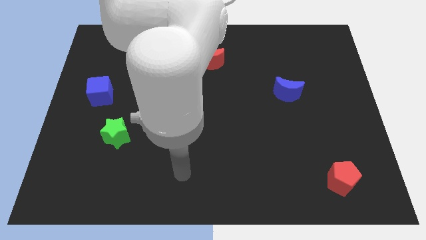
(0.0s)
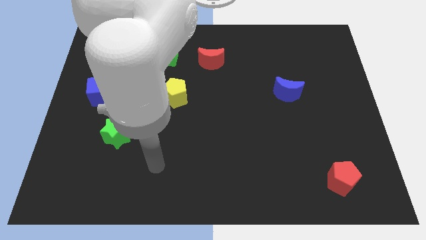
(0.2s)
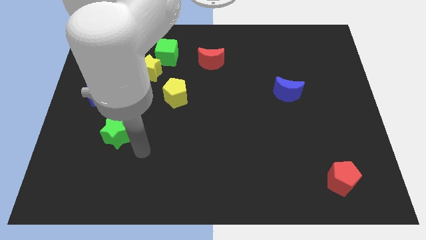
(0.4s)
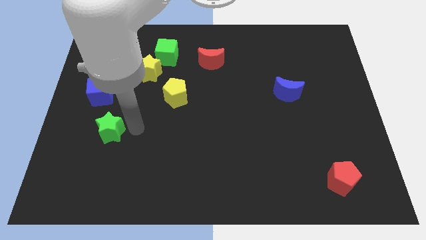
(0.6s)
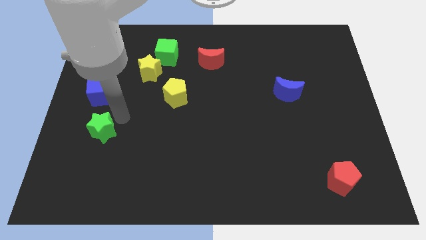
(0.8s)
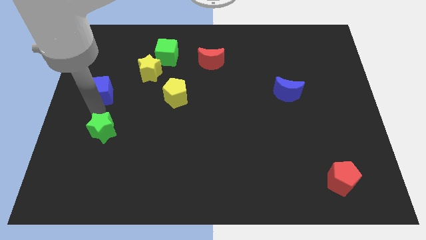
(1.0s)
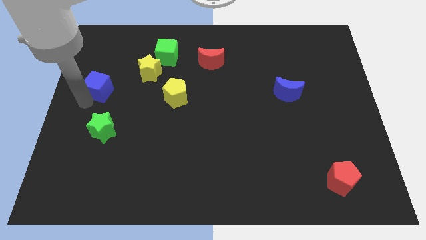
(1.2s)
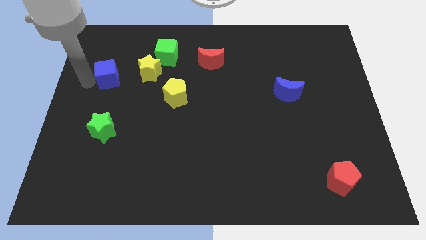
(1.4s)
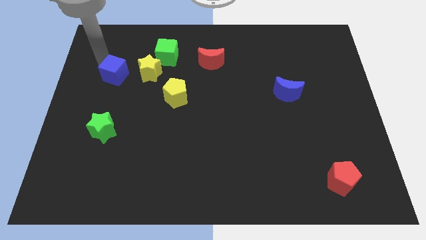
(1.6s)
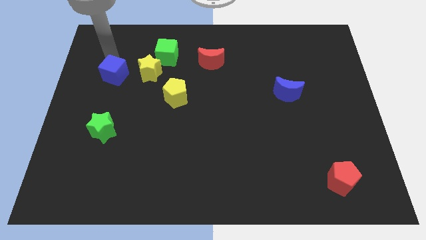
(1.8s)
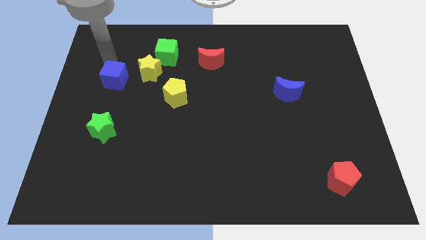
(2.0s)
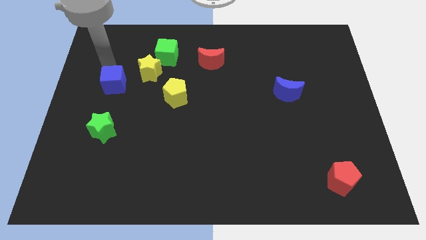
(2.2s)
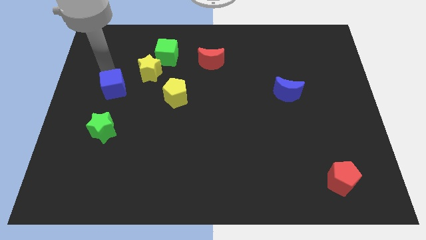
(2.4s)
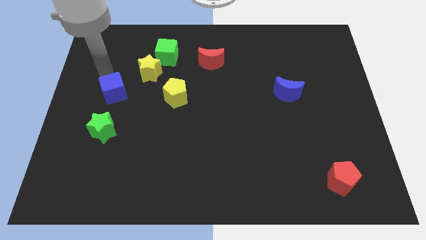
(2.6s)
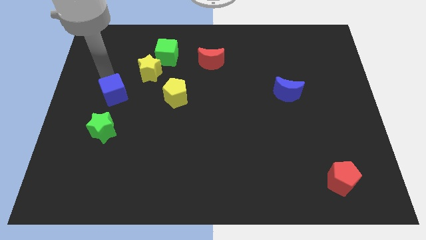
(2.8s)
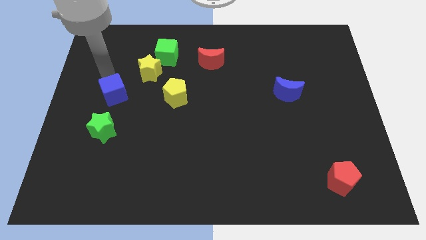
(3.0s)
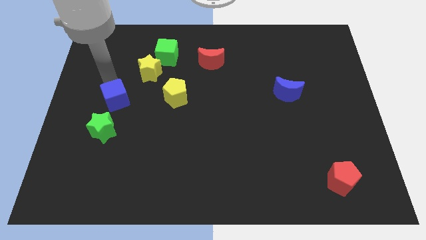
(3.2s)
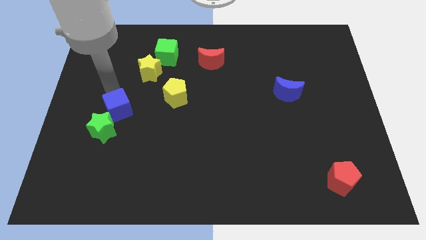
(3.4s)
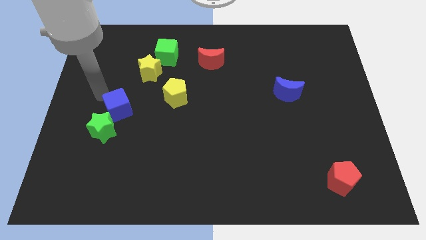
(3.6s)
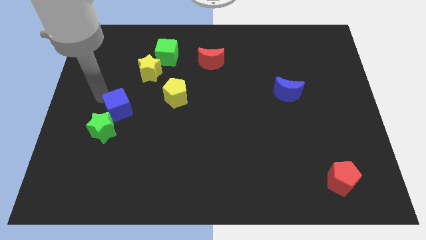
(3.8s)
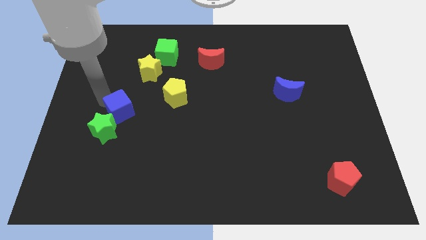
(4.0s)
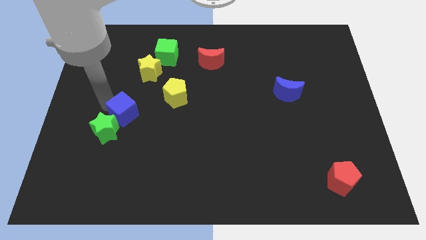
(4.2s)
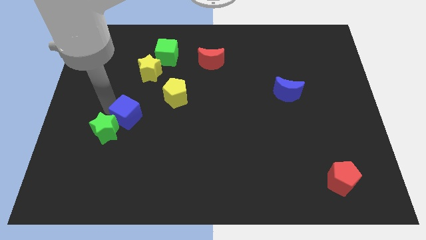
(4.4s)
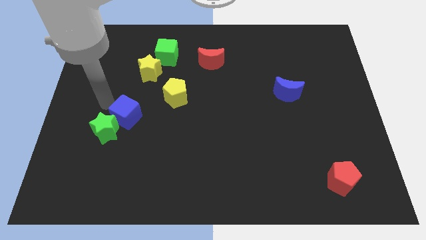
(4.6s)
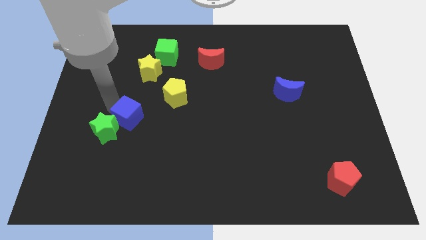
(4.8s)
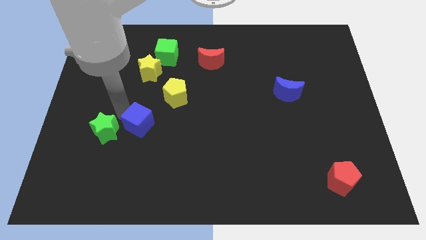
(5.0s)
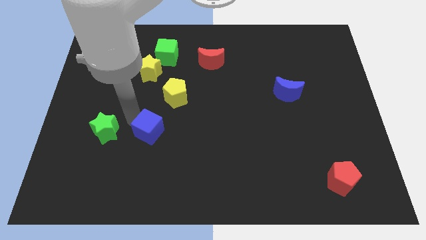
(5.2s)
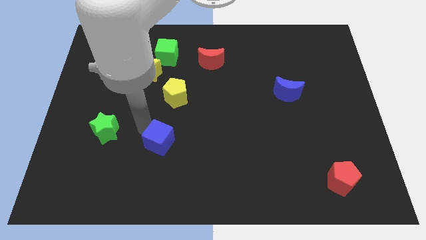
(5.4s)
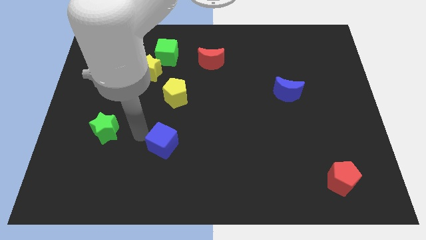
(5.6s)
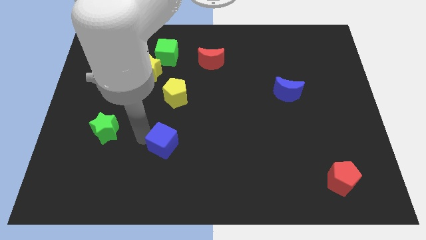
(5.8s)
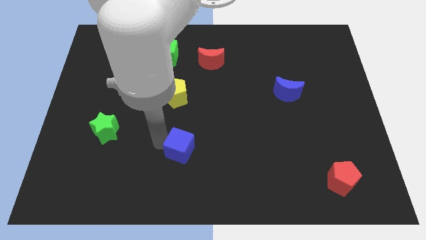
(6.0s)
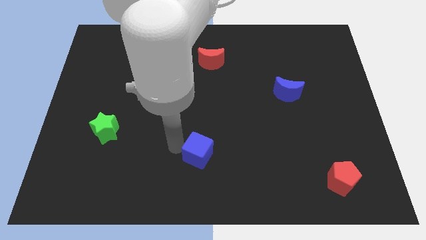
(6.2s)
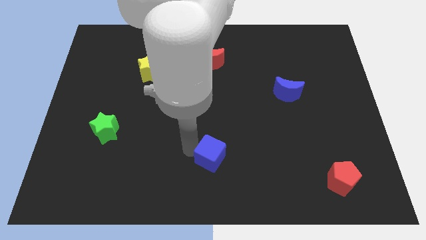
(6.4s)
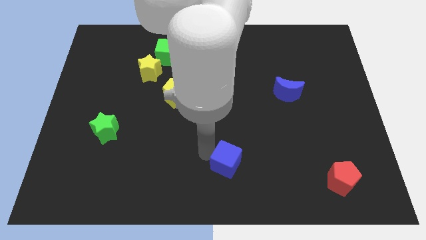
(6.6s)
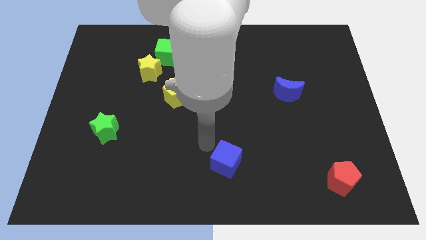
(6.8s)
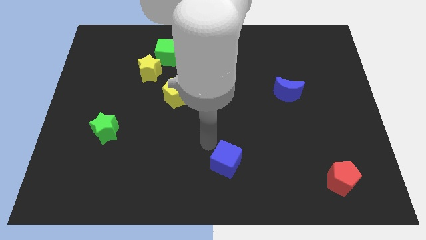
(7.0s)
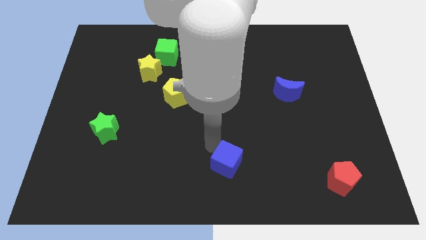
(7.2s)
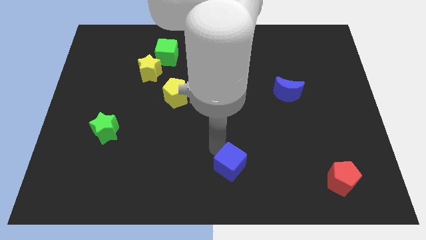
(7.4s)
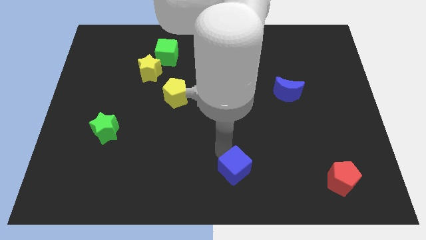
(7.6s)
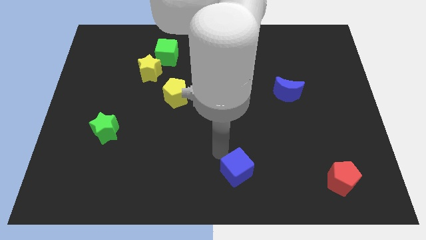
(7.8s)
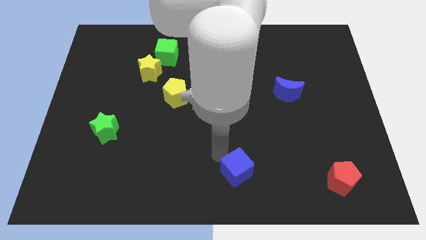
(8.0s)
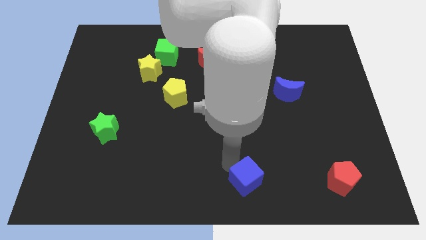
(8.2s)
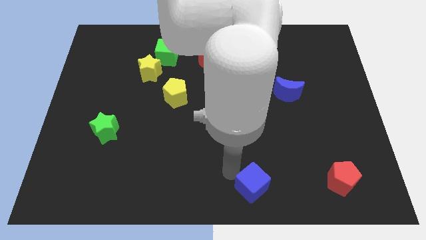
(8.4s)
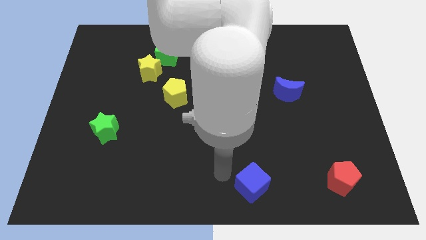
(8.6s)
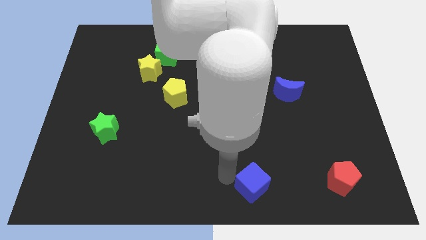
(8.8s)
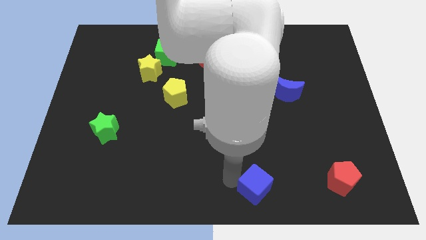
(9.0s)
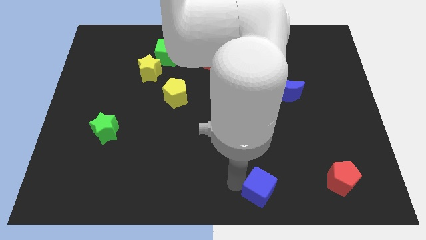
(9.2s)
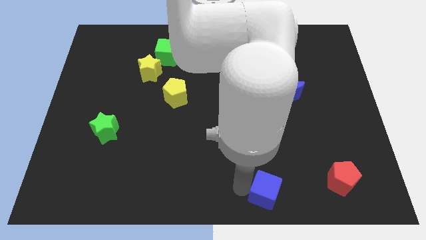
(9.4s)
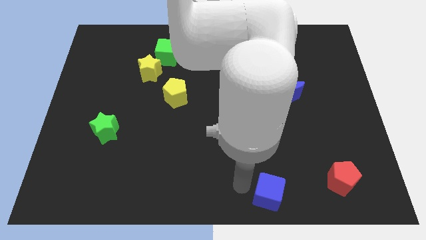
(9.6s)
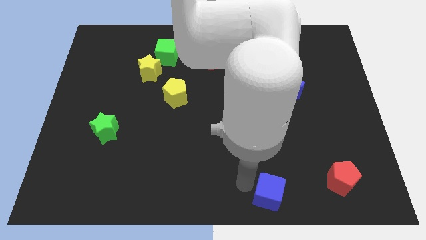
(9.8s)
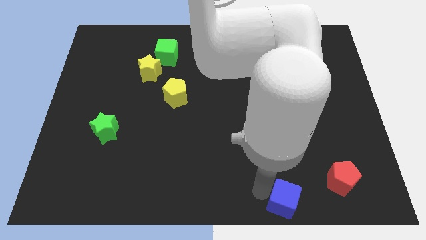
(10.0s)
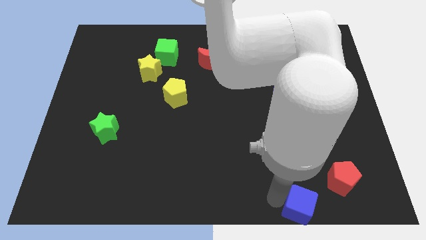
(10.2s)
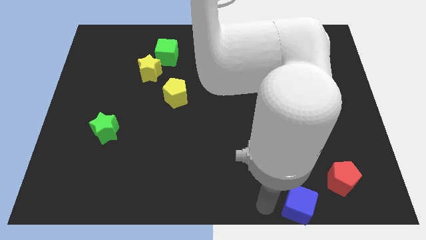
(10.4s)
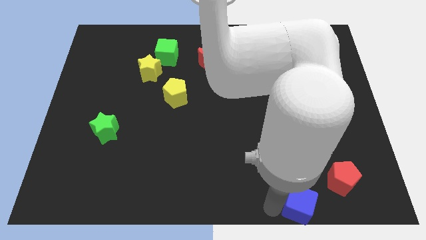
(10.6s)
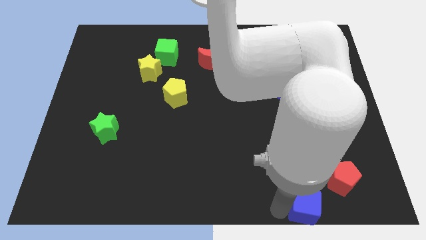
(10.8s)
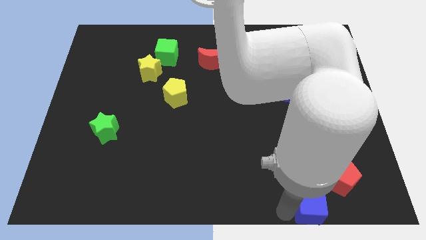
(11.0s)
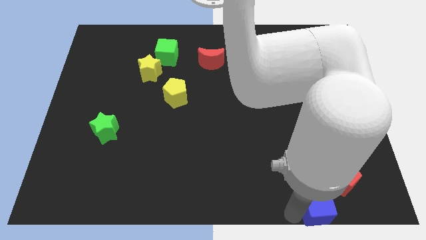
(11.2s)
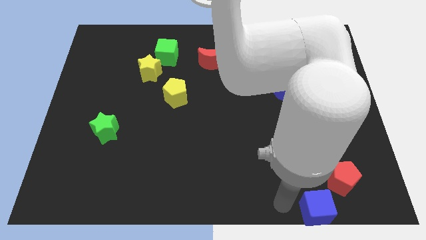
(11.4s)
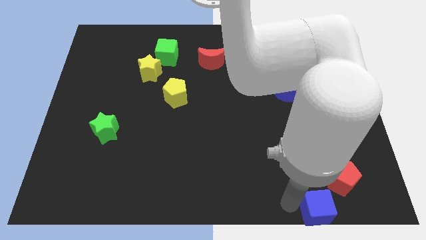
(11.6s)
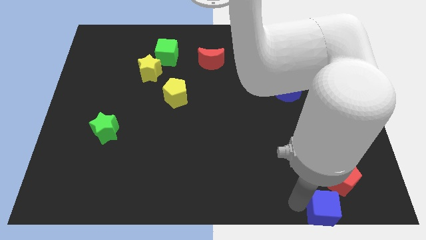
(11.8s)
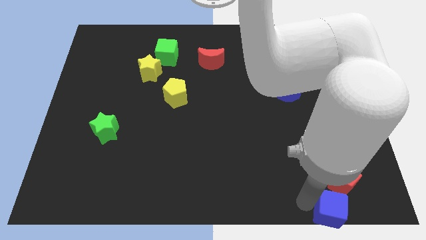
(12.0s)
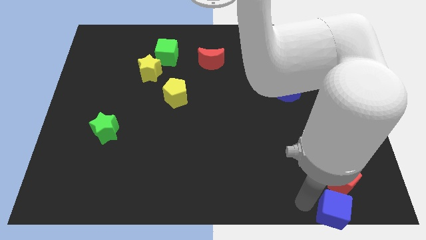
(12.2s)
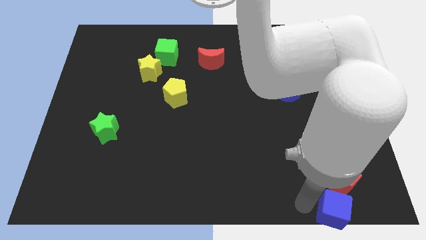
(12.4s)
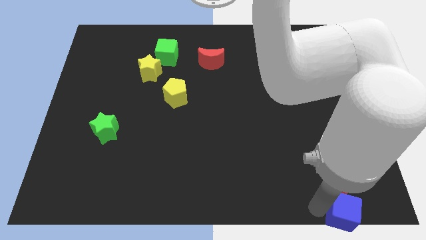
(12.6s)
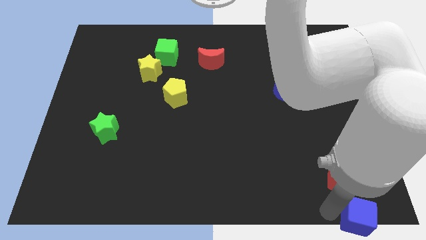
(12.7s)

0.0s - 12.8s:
put the blue cube to the bottom right corner
